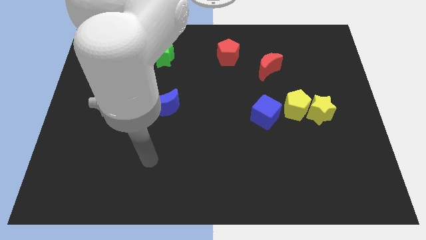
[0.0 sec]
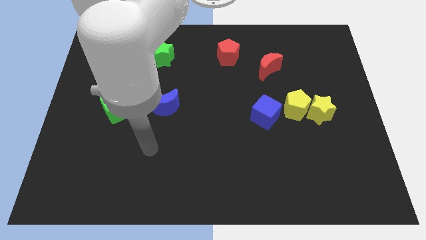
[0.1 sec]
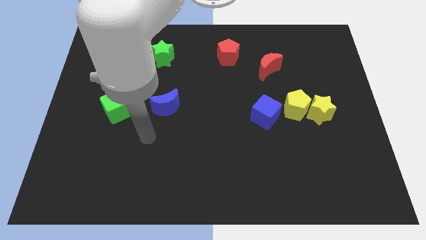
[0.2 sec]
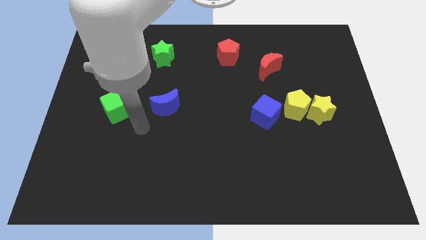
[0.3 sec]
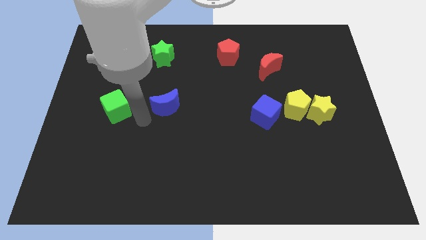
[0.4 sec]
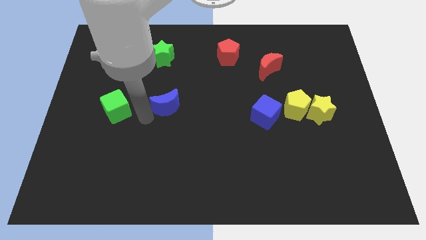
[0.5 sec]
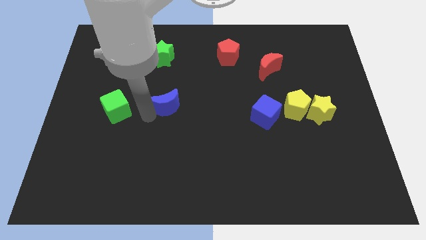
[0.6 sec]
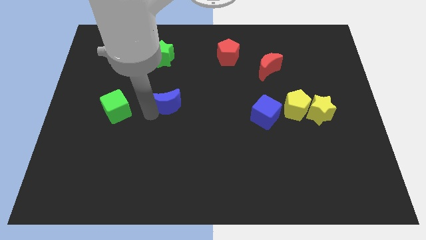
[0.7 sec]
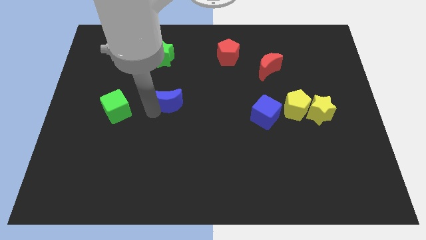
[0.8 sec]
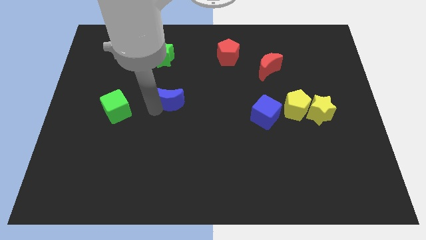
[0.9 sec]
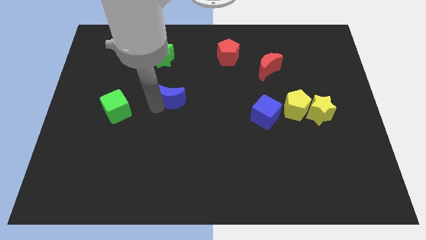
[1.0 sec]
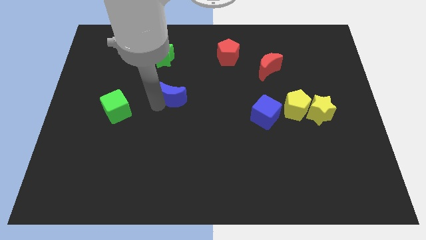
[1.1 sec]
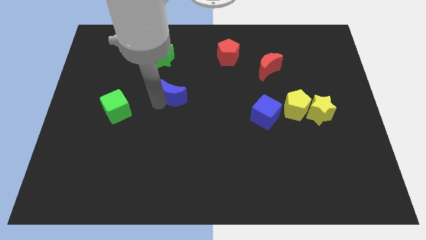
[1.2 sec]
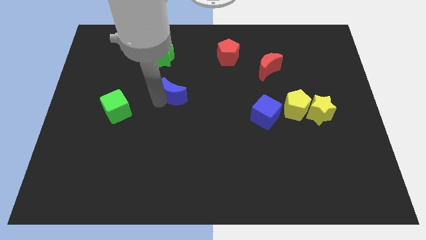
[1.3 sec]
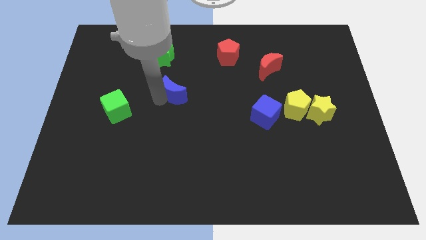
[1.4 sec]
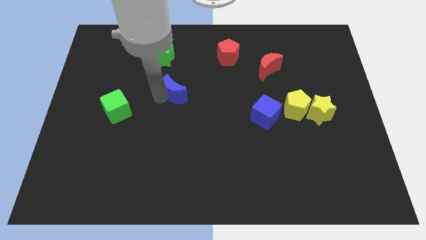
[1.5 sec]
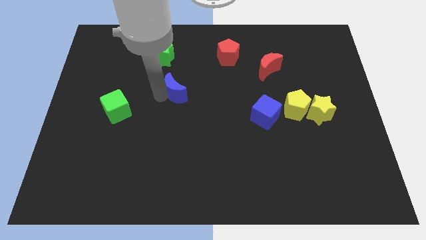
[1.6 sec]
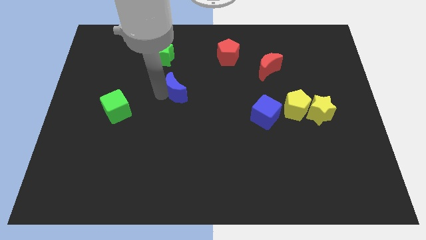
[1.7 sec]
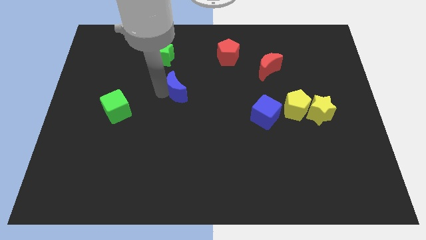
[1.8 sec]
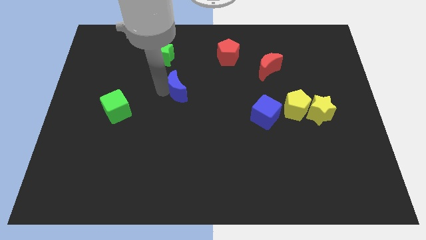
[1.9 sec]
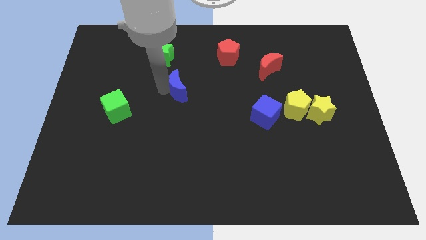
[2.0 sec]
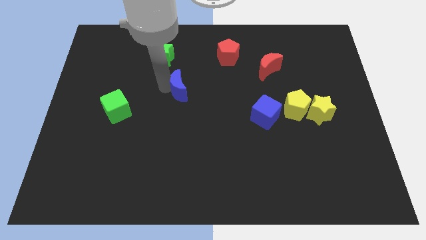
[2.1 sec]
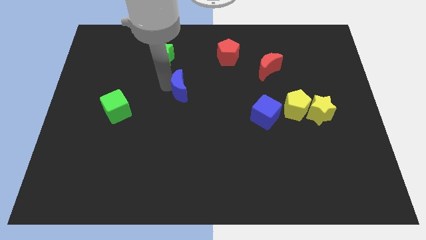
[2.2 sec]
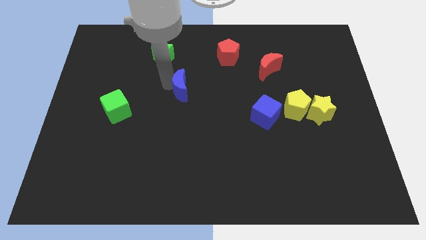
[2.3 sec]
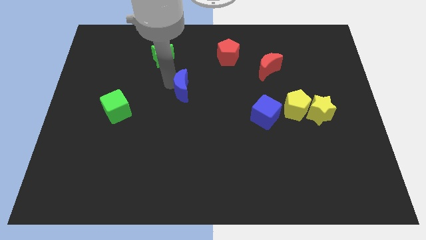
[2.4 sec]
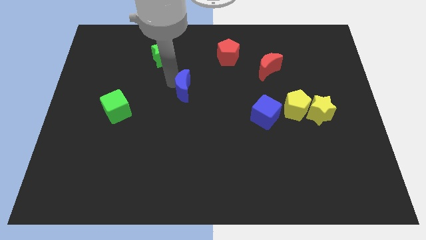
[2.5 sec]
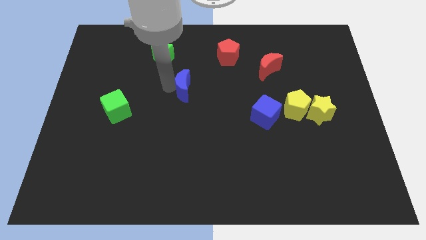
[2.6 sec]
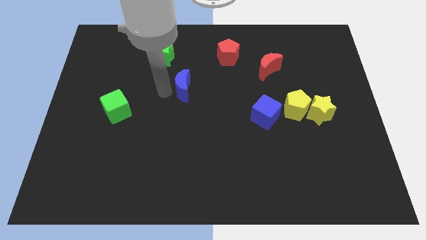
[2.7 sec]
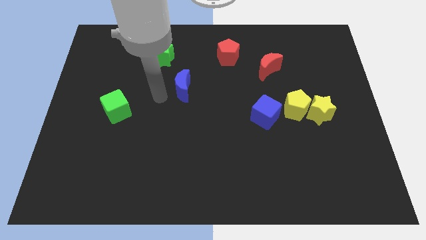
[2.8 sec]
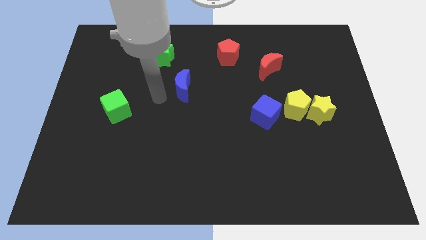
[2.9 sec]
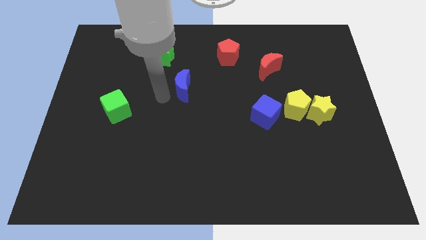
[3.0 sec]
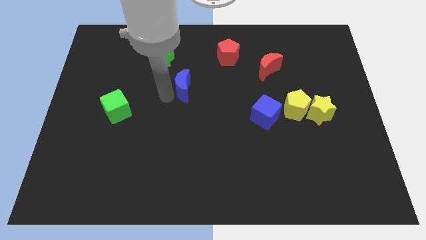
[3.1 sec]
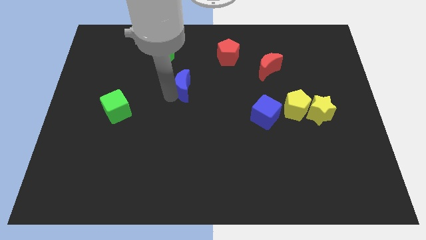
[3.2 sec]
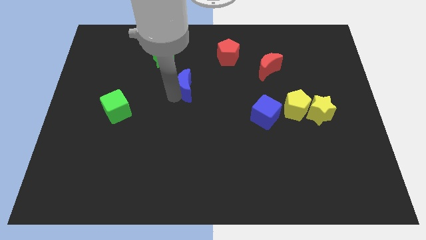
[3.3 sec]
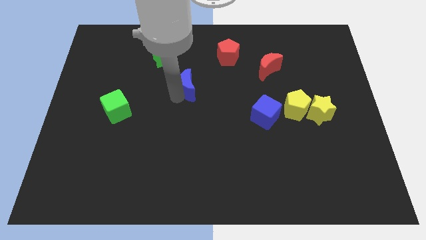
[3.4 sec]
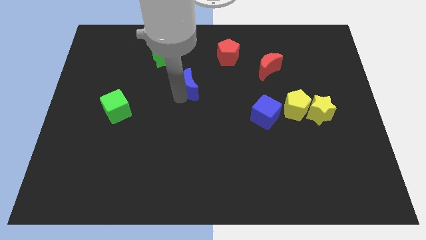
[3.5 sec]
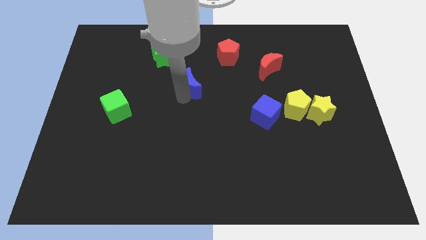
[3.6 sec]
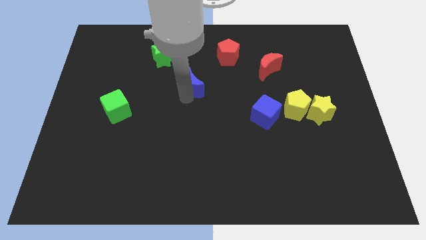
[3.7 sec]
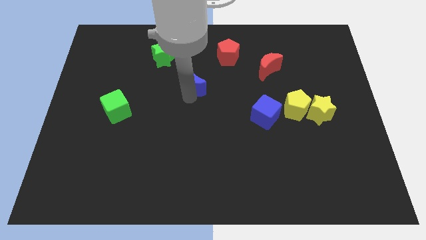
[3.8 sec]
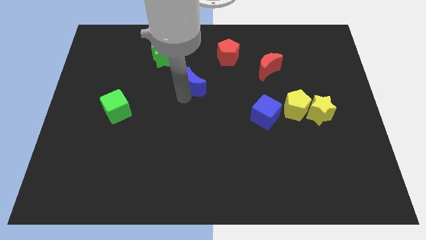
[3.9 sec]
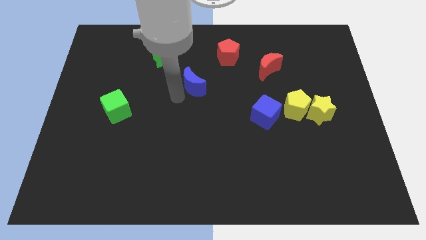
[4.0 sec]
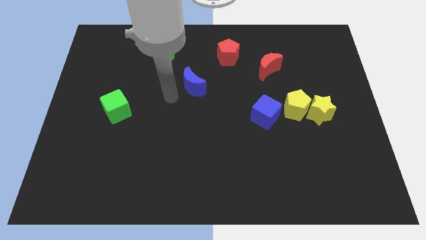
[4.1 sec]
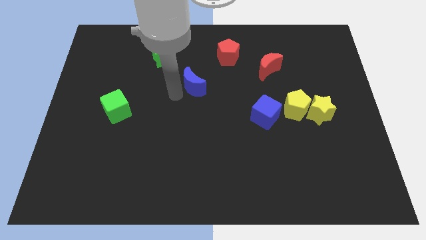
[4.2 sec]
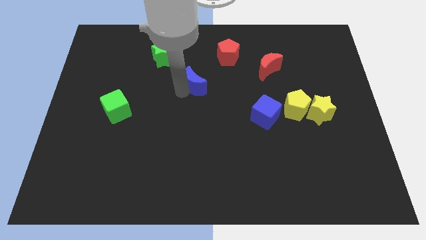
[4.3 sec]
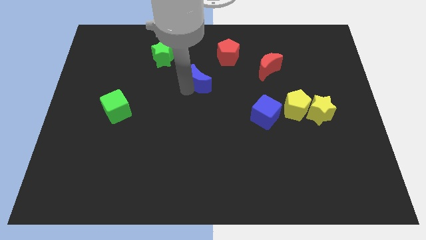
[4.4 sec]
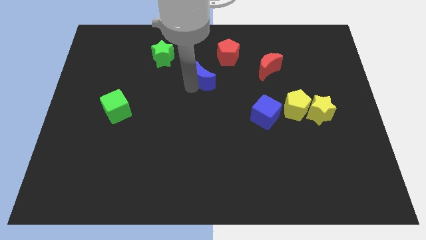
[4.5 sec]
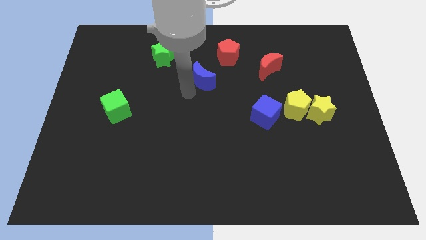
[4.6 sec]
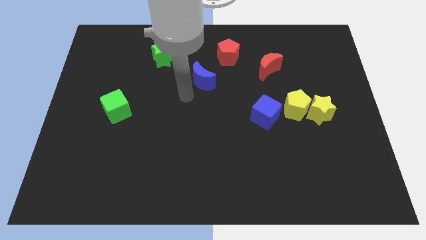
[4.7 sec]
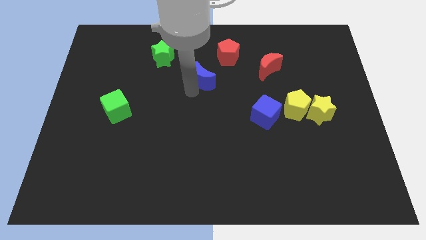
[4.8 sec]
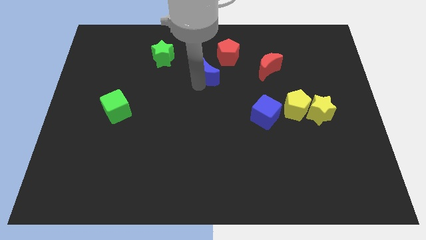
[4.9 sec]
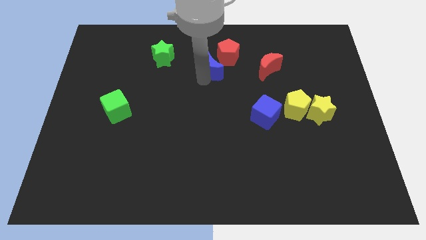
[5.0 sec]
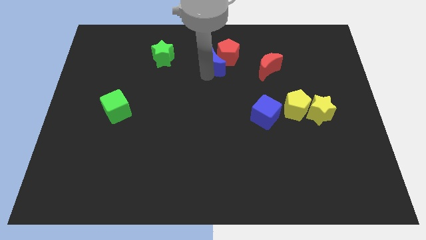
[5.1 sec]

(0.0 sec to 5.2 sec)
push the blue moon close to the red pentagon
